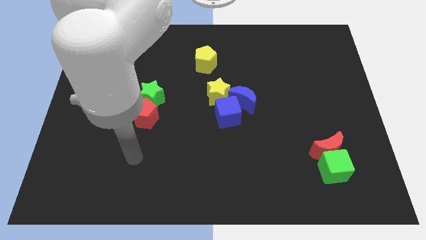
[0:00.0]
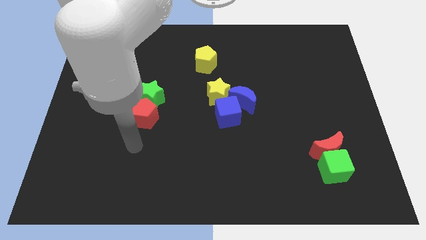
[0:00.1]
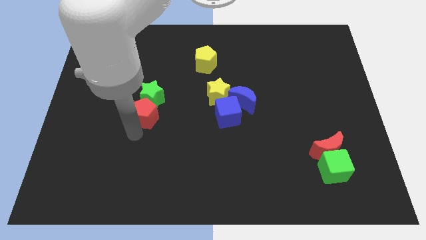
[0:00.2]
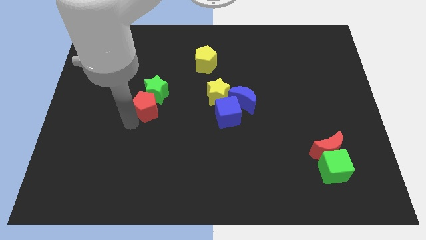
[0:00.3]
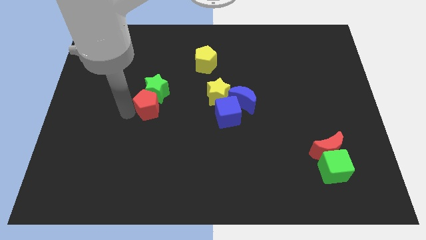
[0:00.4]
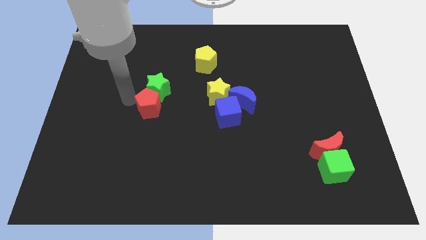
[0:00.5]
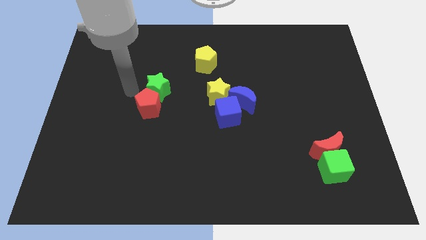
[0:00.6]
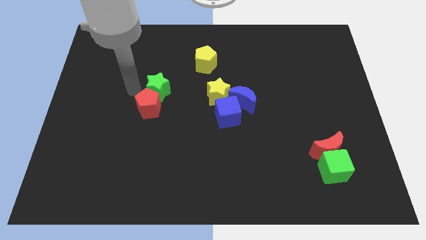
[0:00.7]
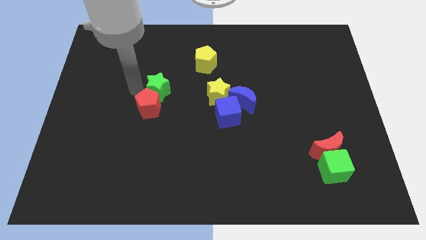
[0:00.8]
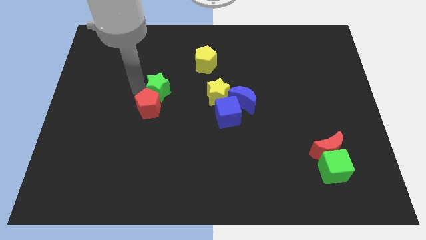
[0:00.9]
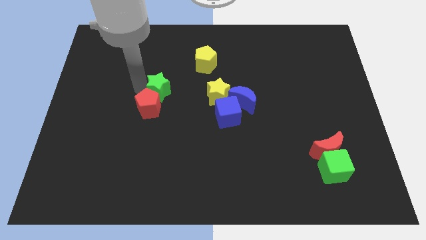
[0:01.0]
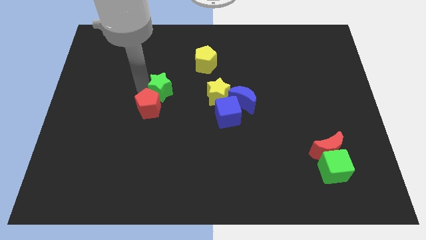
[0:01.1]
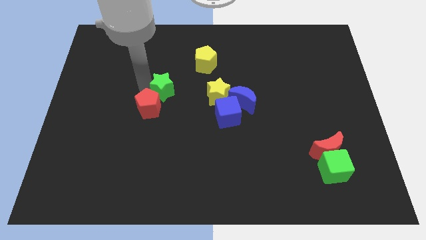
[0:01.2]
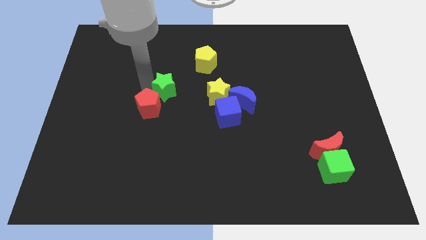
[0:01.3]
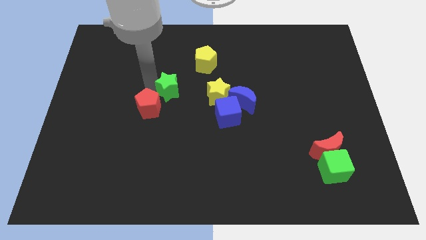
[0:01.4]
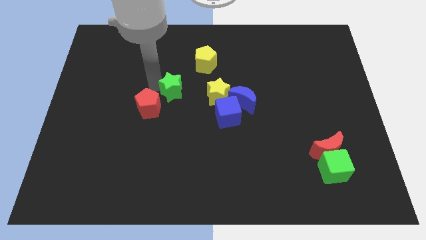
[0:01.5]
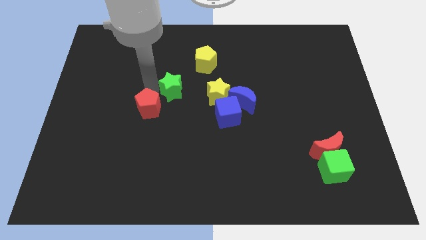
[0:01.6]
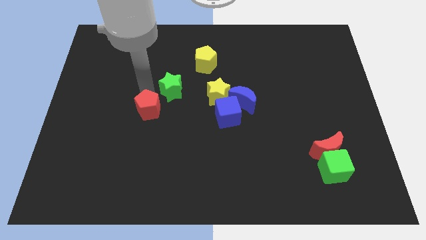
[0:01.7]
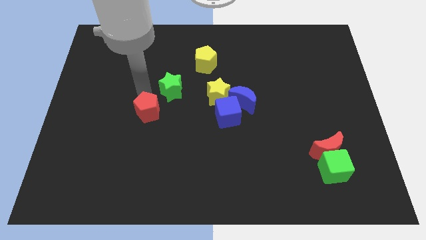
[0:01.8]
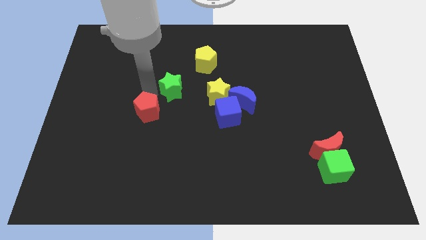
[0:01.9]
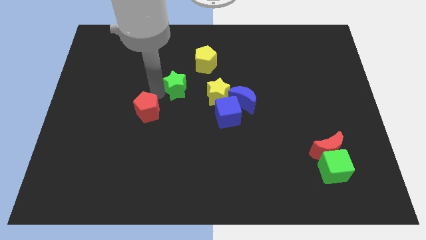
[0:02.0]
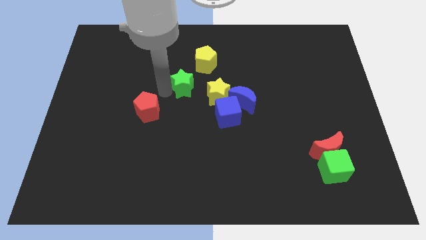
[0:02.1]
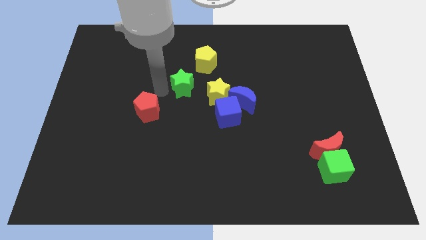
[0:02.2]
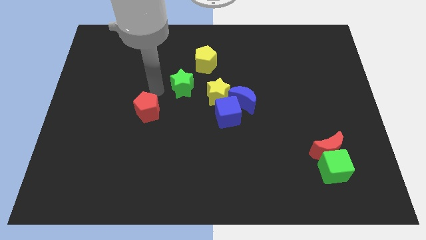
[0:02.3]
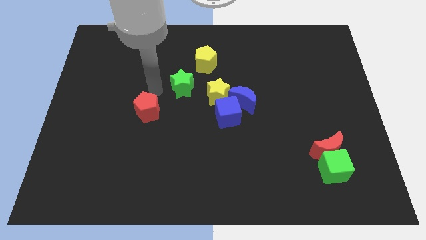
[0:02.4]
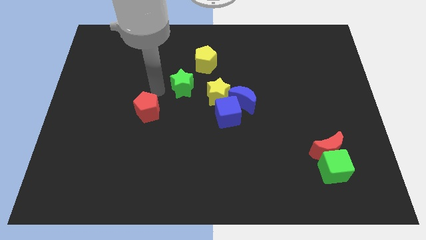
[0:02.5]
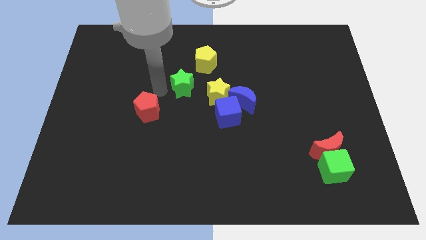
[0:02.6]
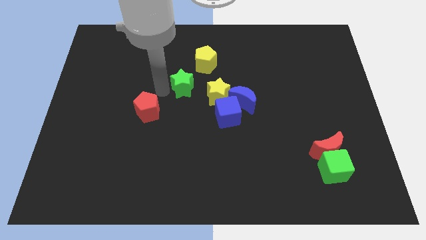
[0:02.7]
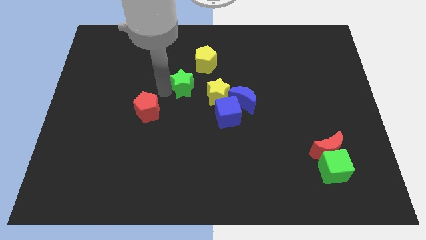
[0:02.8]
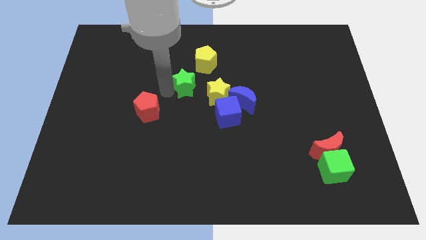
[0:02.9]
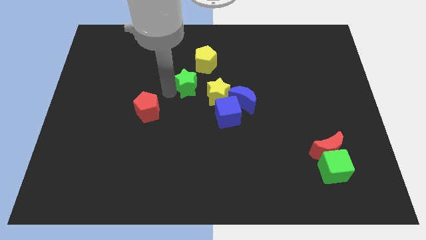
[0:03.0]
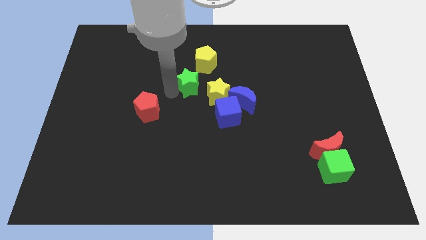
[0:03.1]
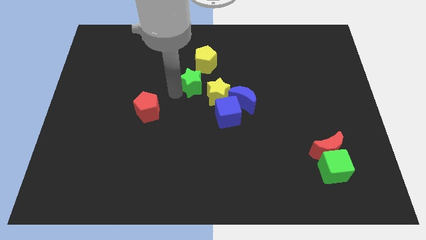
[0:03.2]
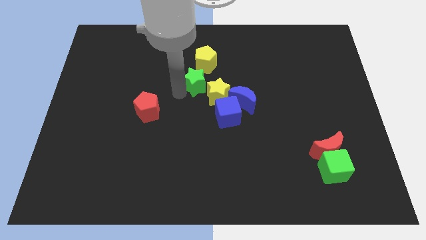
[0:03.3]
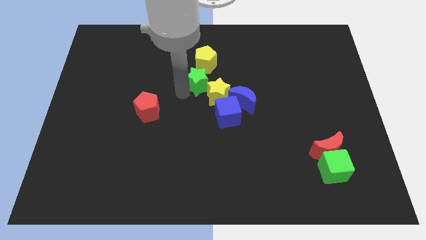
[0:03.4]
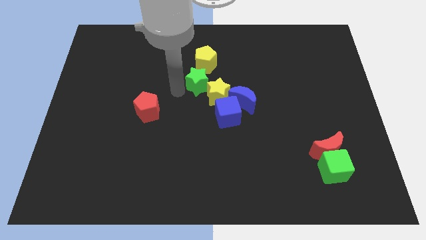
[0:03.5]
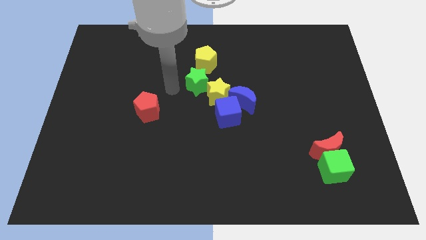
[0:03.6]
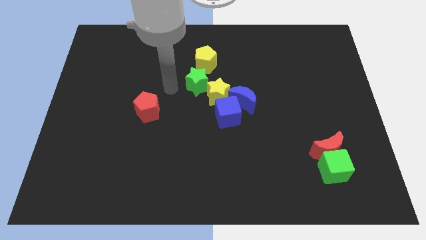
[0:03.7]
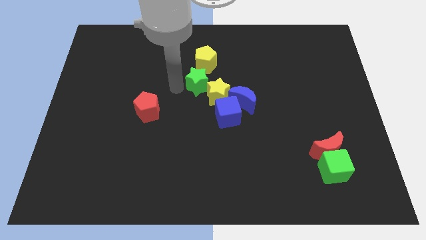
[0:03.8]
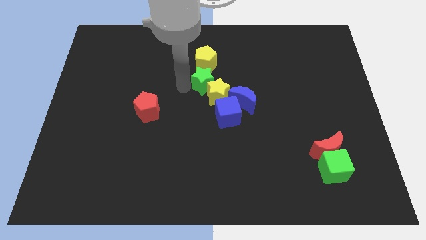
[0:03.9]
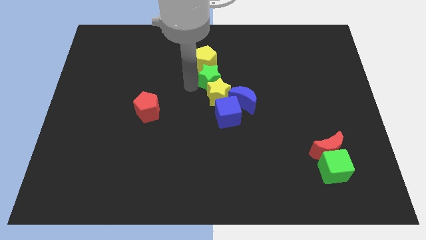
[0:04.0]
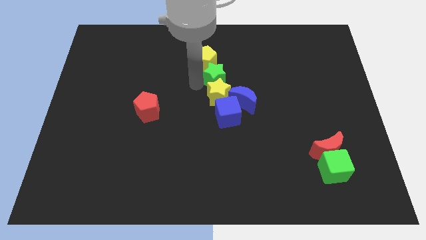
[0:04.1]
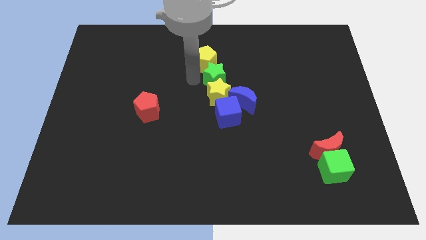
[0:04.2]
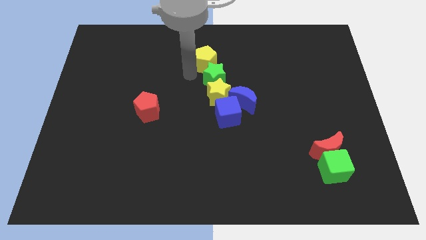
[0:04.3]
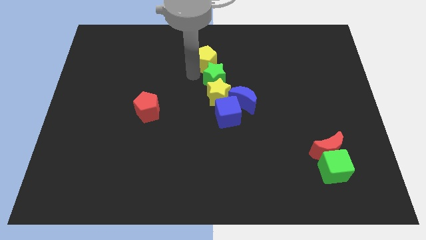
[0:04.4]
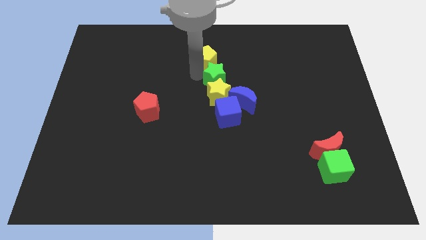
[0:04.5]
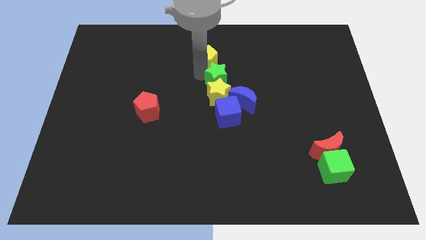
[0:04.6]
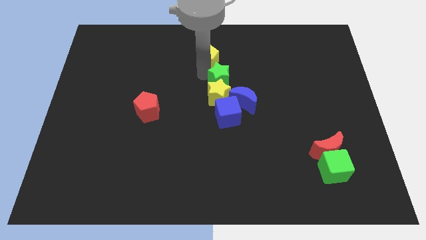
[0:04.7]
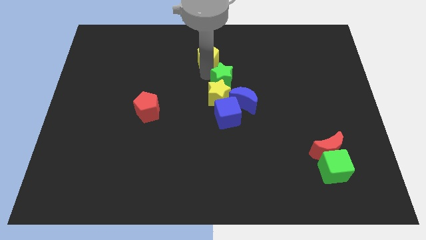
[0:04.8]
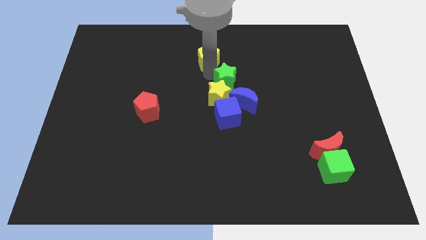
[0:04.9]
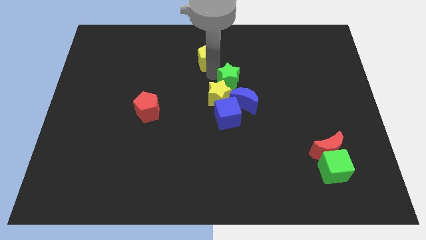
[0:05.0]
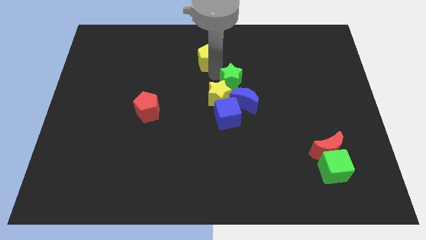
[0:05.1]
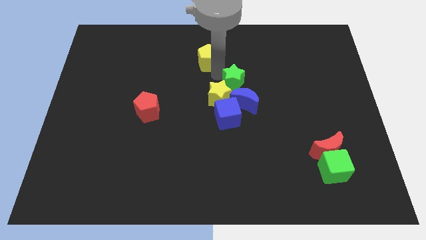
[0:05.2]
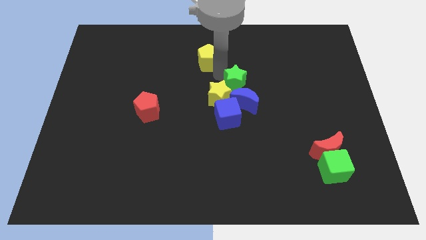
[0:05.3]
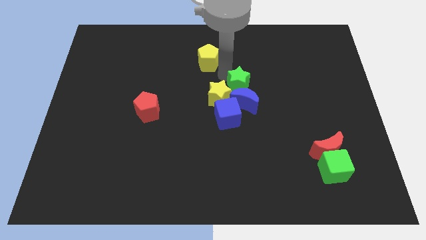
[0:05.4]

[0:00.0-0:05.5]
push the green star right

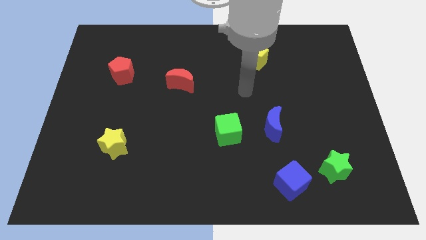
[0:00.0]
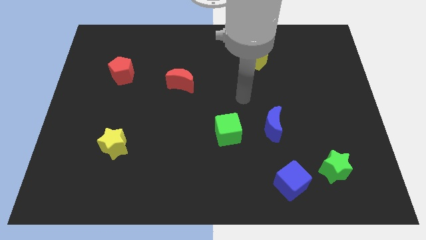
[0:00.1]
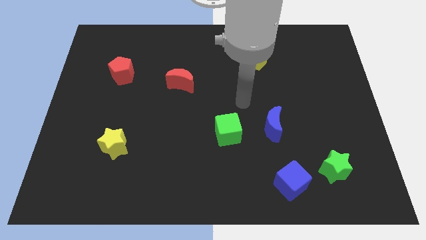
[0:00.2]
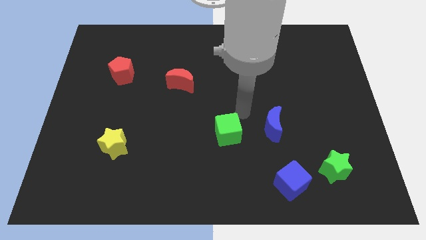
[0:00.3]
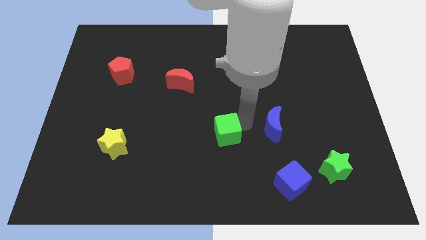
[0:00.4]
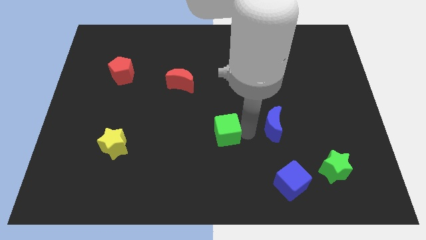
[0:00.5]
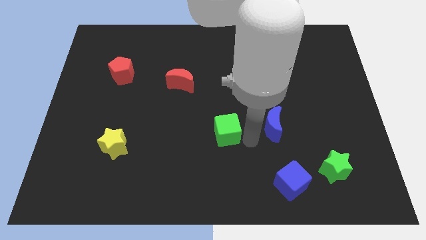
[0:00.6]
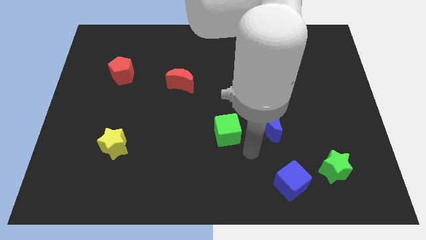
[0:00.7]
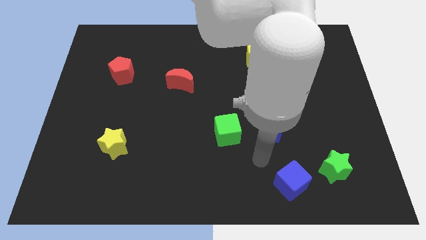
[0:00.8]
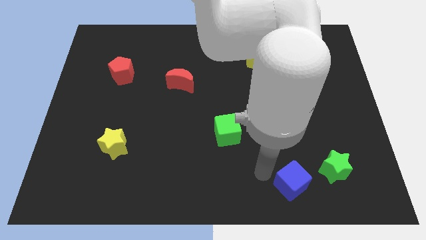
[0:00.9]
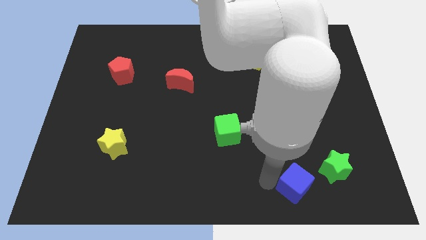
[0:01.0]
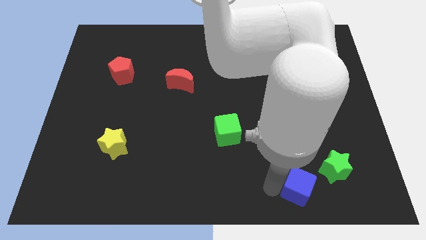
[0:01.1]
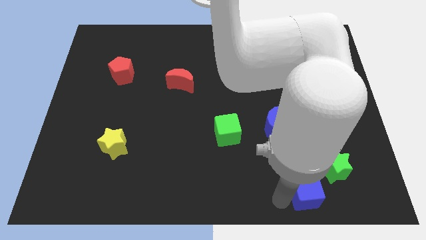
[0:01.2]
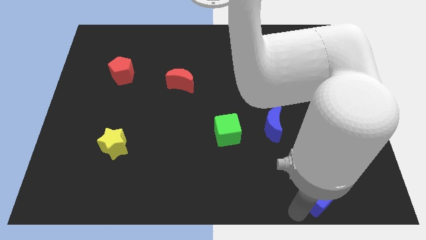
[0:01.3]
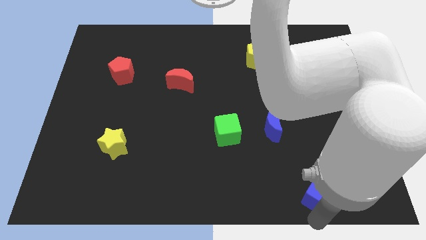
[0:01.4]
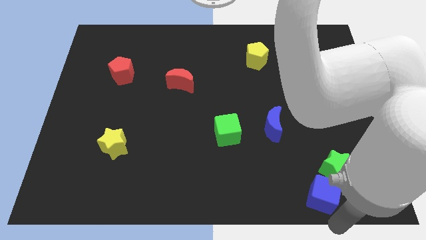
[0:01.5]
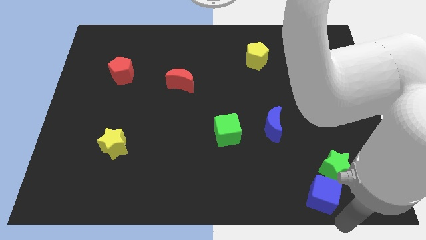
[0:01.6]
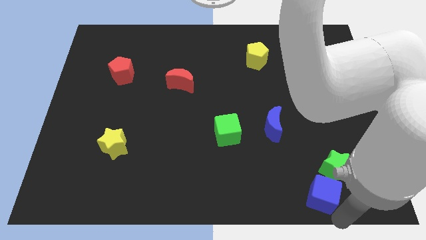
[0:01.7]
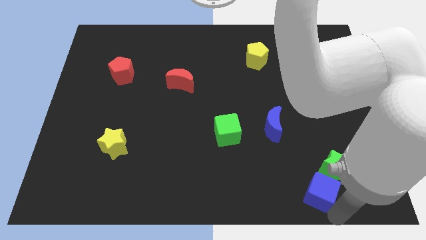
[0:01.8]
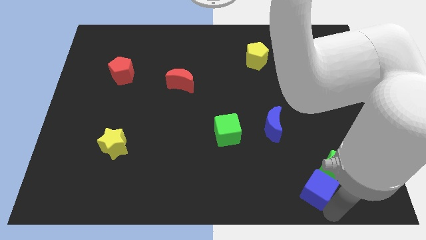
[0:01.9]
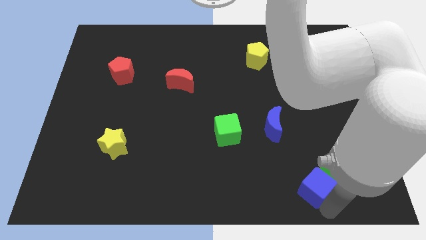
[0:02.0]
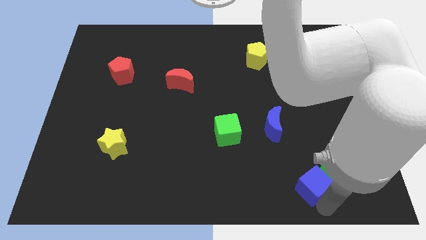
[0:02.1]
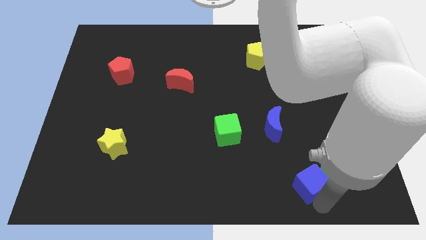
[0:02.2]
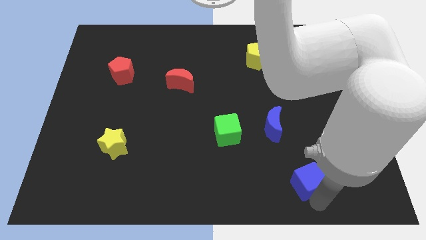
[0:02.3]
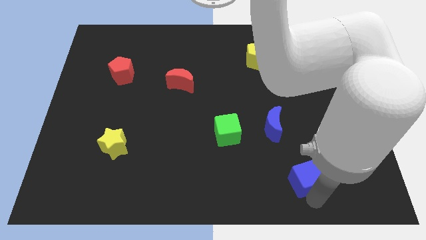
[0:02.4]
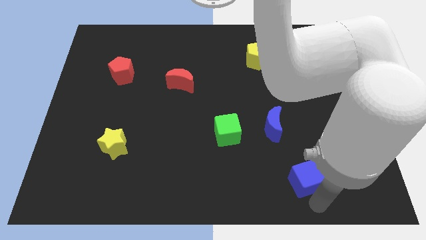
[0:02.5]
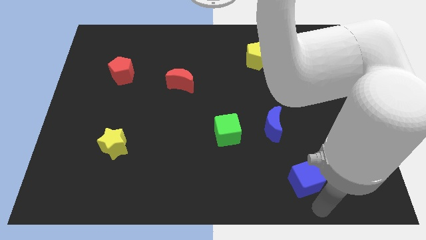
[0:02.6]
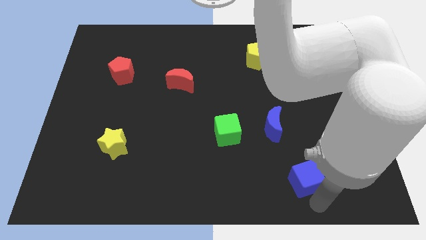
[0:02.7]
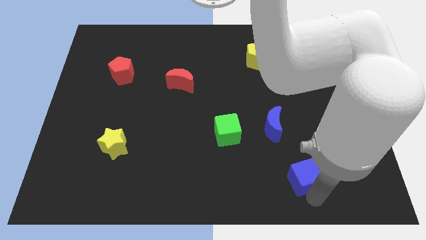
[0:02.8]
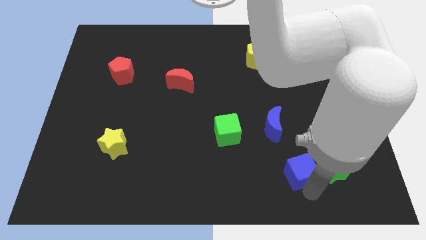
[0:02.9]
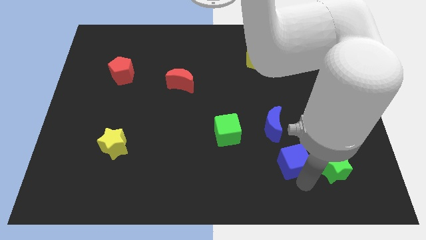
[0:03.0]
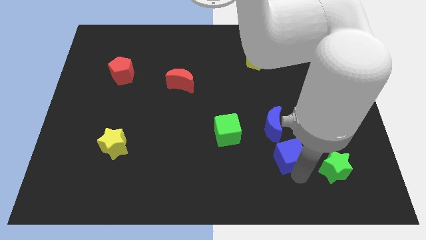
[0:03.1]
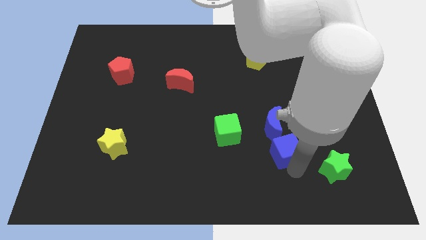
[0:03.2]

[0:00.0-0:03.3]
push the blue cube upwards a little
